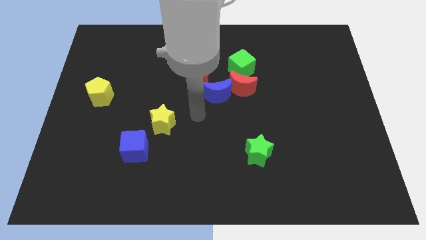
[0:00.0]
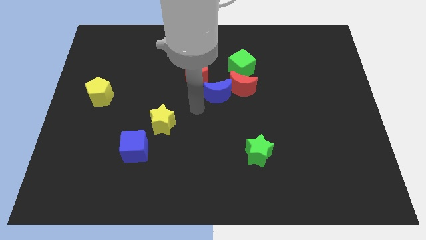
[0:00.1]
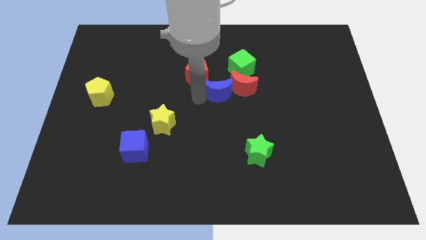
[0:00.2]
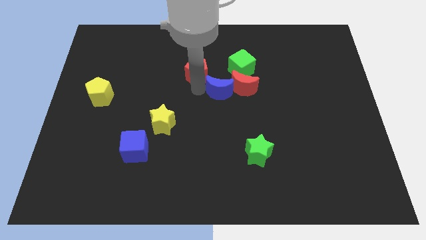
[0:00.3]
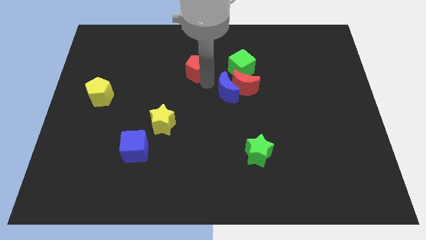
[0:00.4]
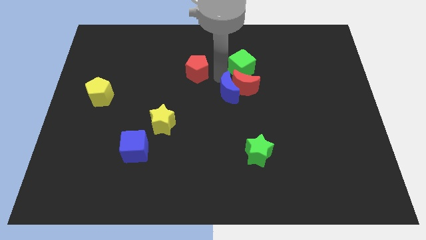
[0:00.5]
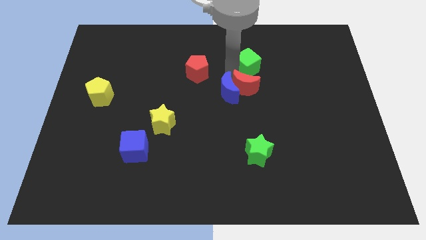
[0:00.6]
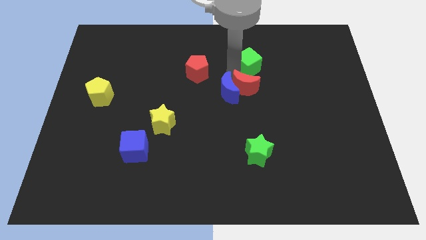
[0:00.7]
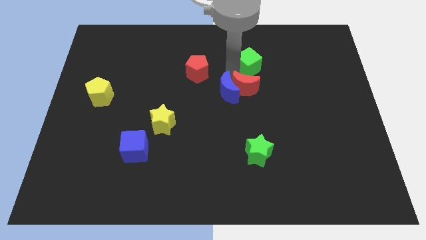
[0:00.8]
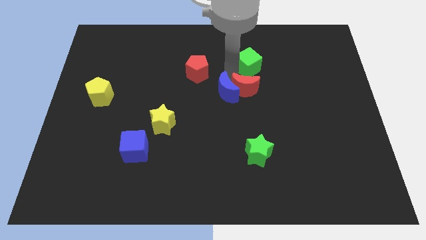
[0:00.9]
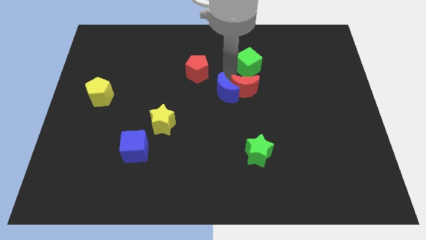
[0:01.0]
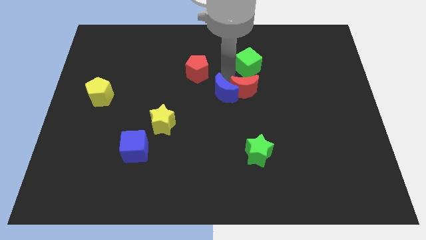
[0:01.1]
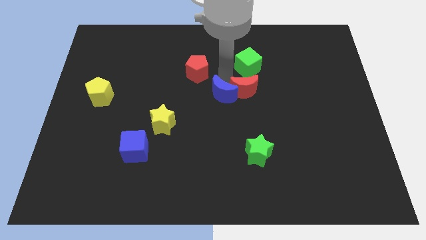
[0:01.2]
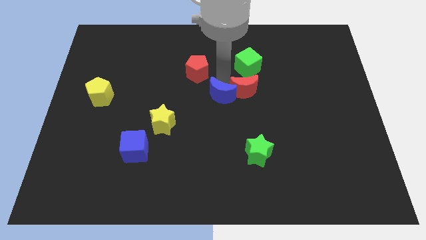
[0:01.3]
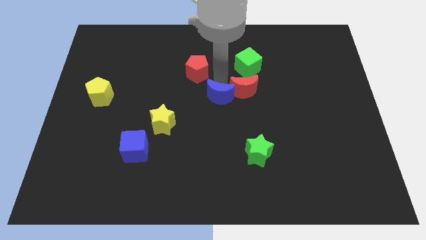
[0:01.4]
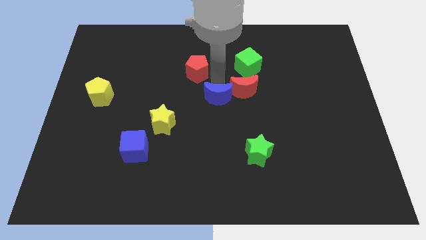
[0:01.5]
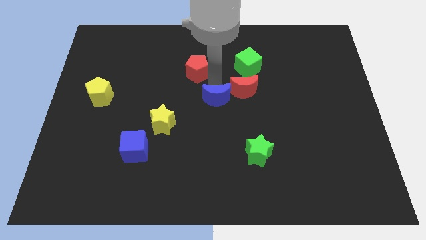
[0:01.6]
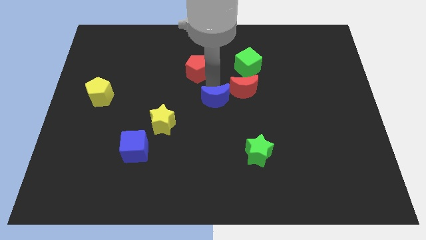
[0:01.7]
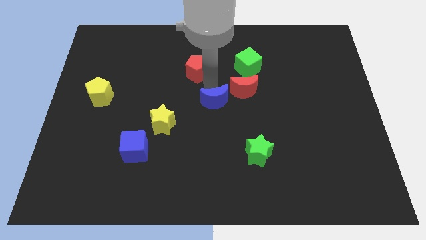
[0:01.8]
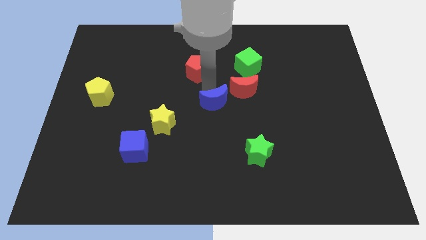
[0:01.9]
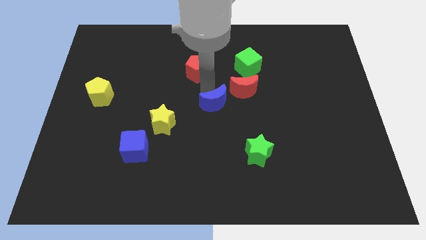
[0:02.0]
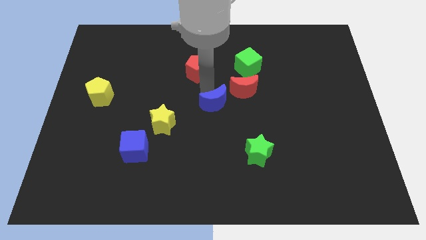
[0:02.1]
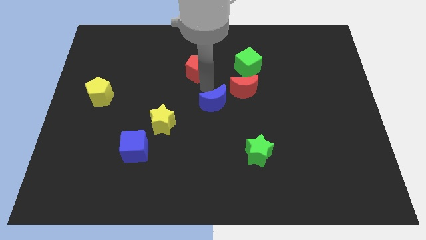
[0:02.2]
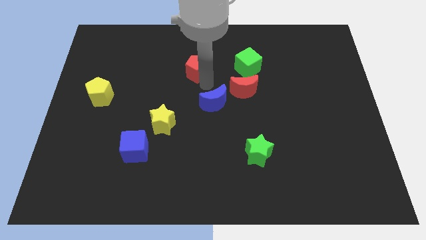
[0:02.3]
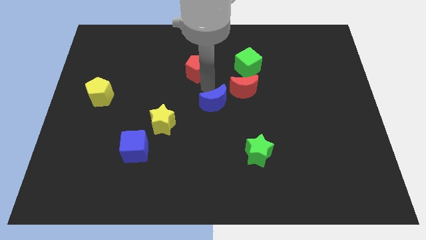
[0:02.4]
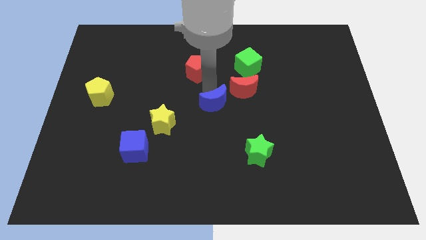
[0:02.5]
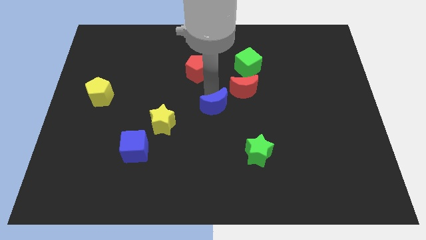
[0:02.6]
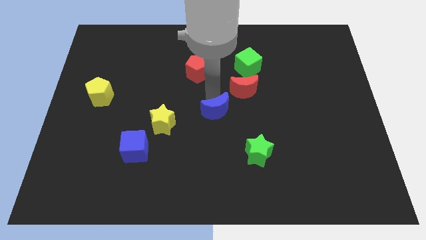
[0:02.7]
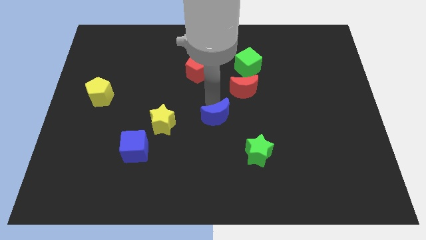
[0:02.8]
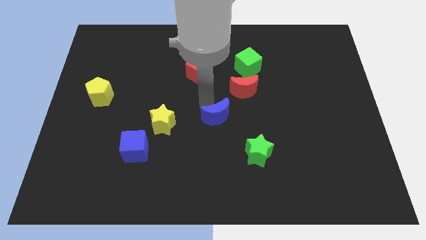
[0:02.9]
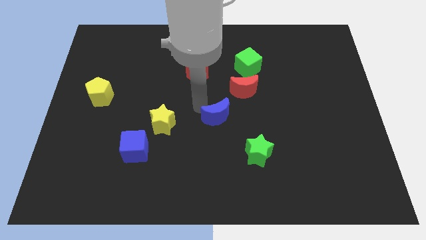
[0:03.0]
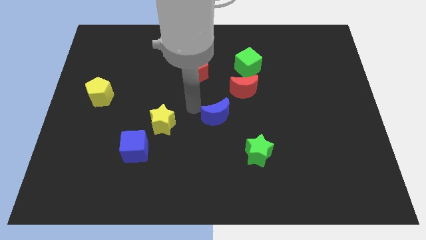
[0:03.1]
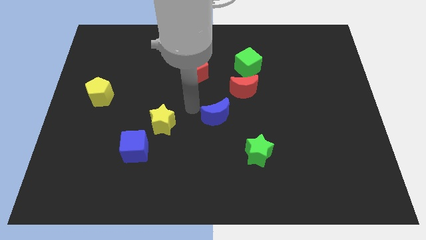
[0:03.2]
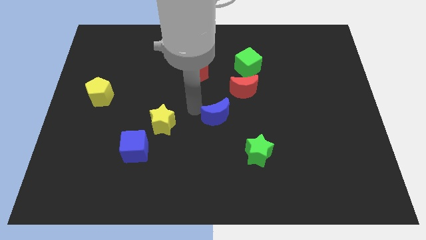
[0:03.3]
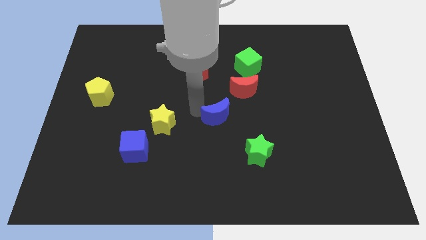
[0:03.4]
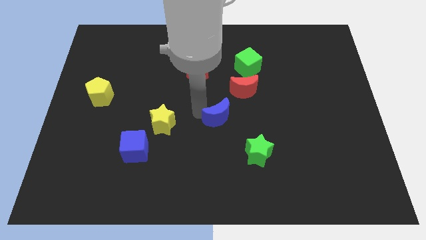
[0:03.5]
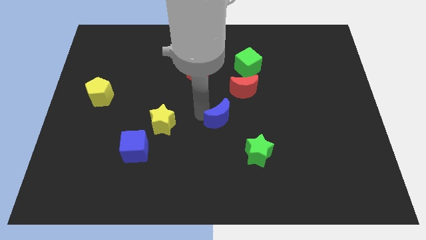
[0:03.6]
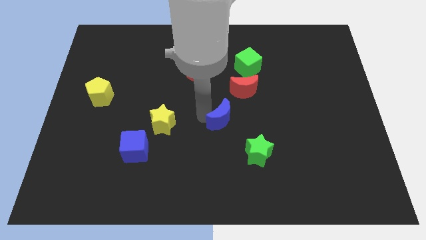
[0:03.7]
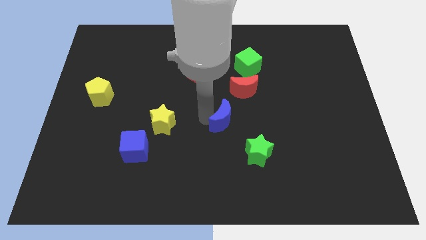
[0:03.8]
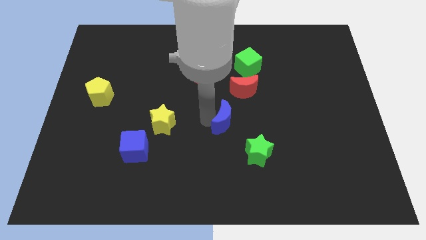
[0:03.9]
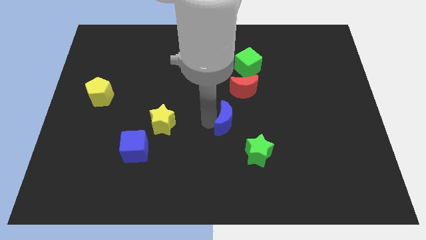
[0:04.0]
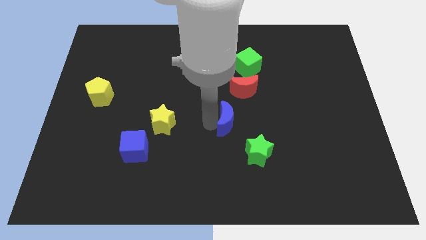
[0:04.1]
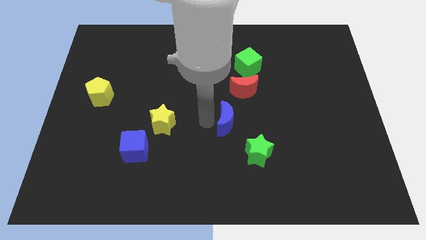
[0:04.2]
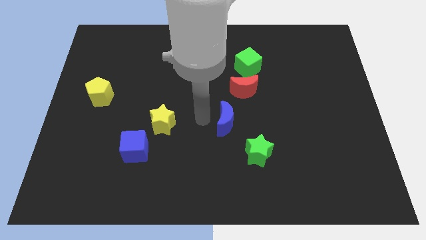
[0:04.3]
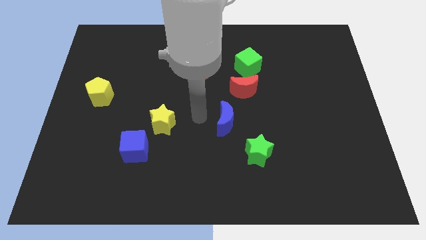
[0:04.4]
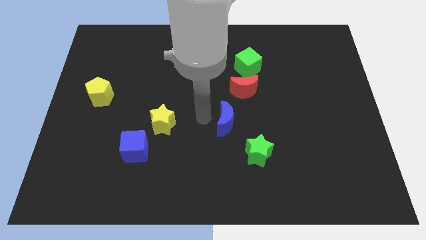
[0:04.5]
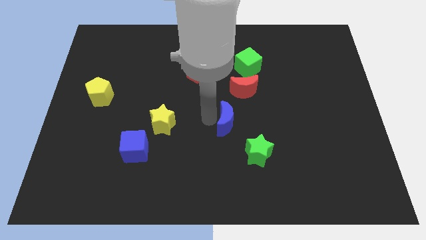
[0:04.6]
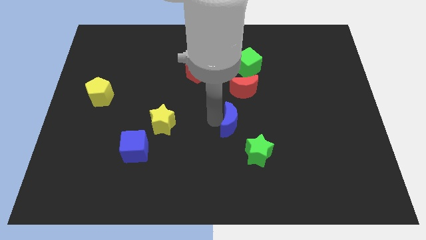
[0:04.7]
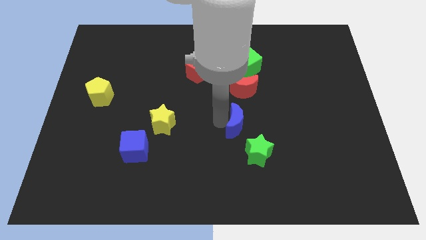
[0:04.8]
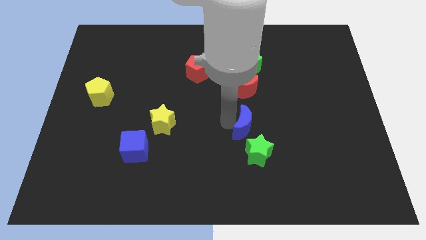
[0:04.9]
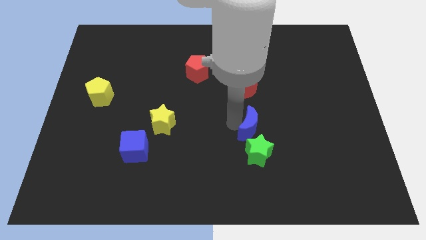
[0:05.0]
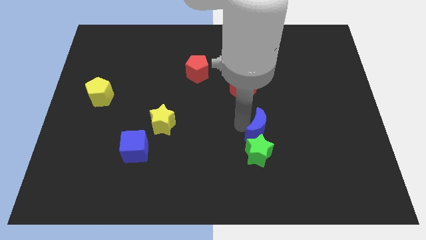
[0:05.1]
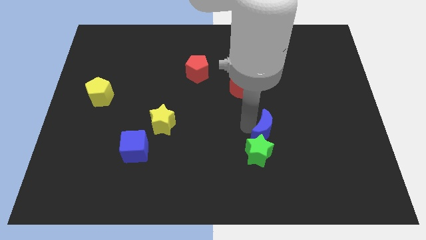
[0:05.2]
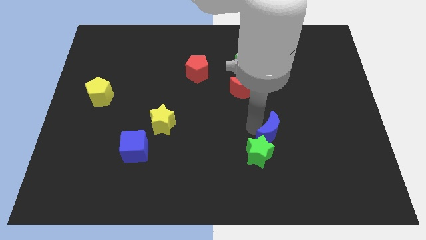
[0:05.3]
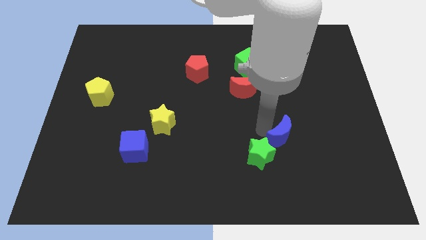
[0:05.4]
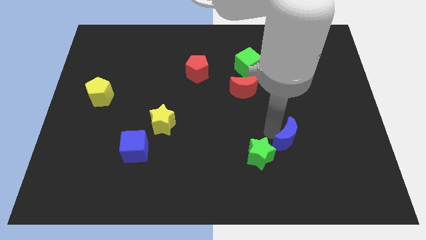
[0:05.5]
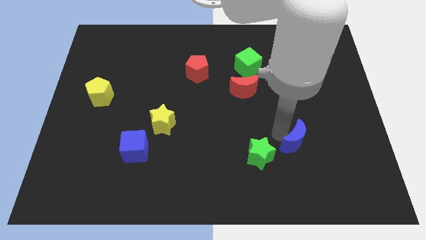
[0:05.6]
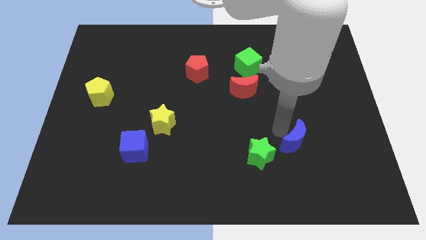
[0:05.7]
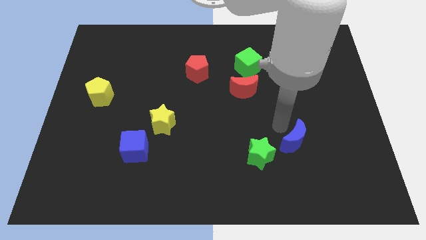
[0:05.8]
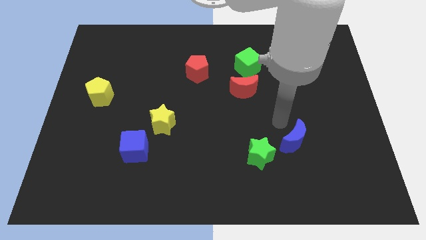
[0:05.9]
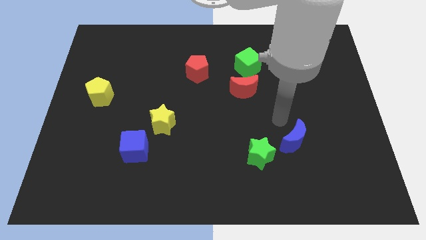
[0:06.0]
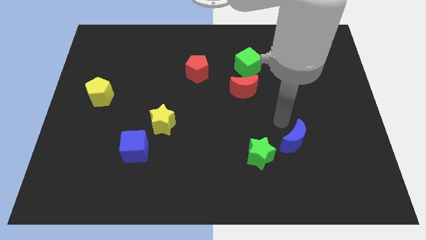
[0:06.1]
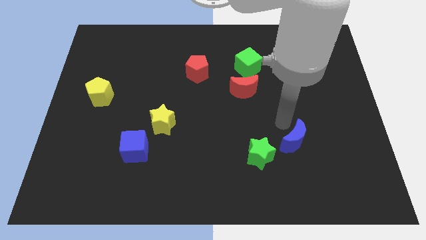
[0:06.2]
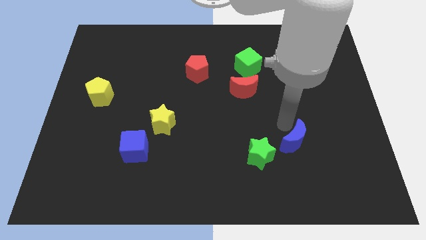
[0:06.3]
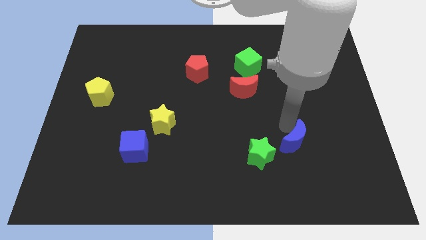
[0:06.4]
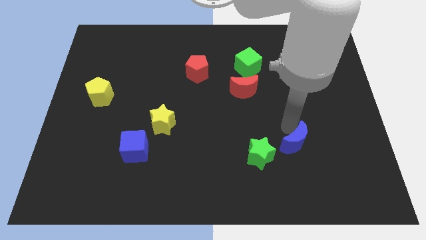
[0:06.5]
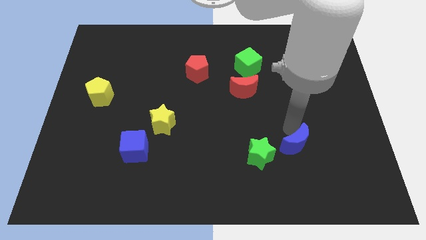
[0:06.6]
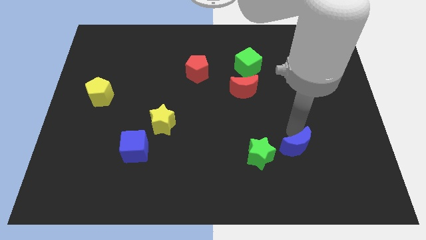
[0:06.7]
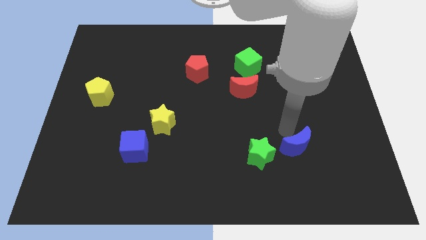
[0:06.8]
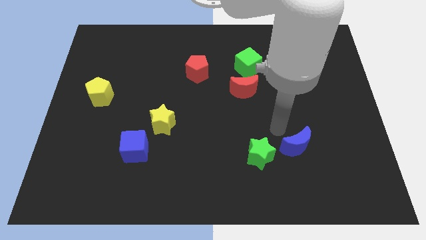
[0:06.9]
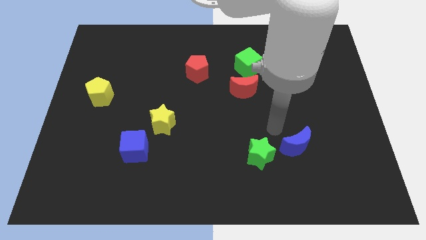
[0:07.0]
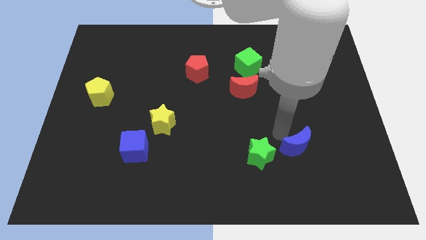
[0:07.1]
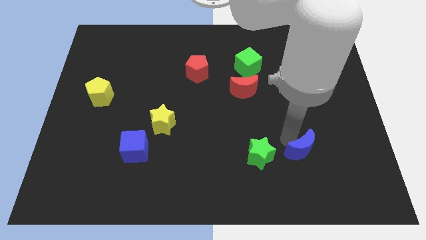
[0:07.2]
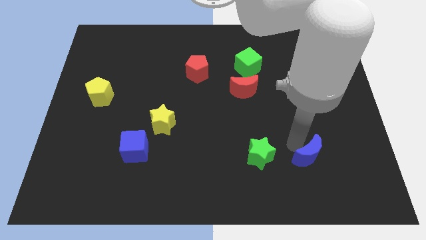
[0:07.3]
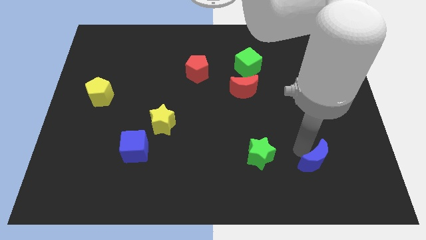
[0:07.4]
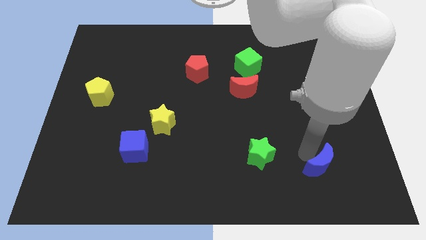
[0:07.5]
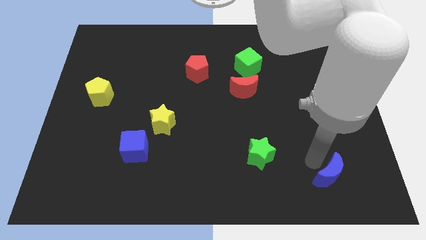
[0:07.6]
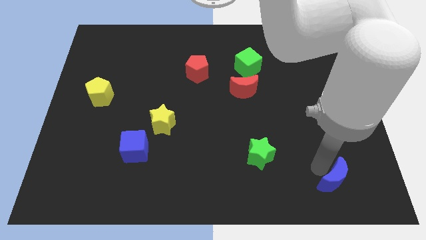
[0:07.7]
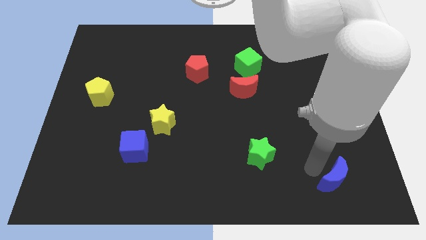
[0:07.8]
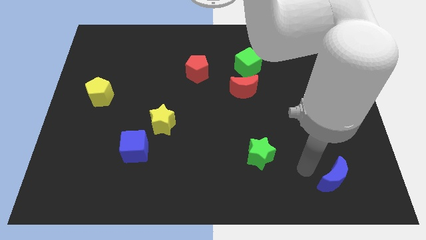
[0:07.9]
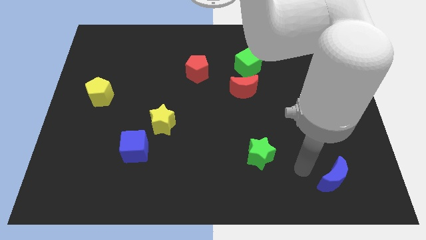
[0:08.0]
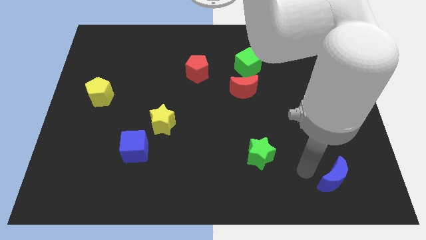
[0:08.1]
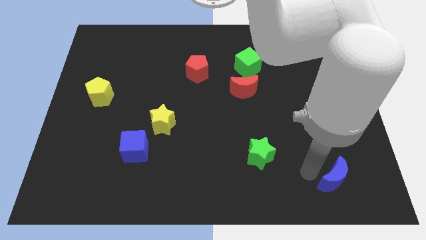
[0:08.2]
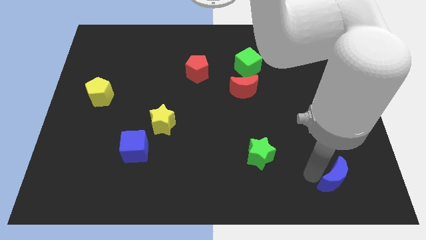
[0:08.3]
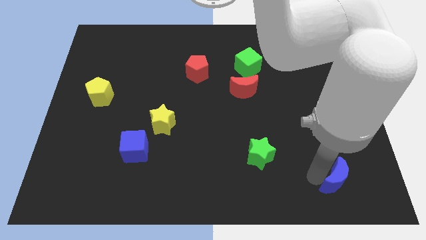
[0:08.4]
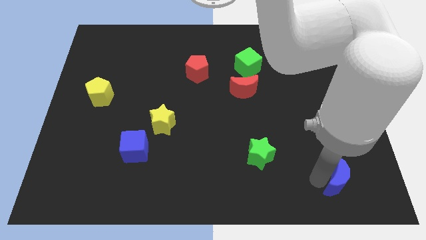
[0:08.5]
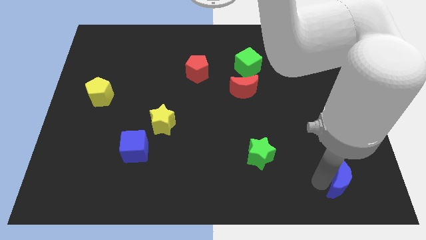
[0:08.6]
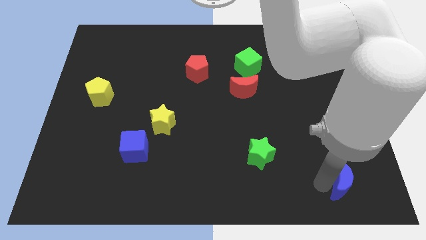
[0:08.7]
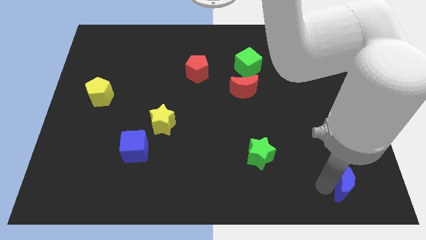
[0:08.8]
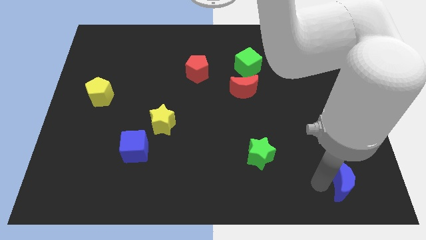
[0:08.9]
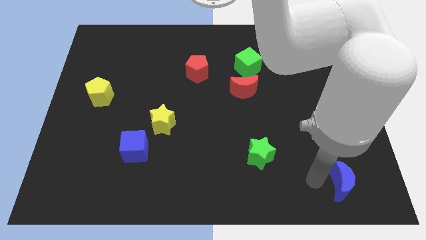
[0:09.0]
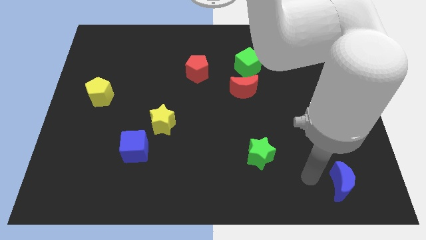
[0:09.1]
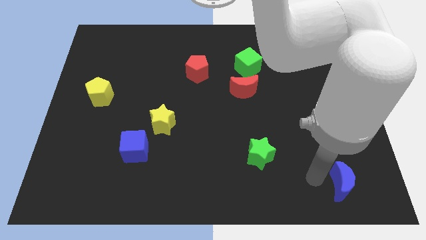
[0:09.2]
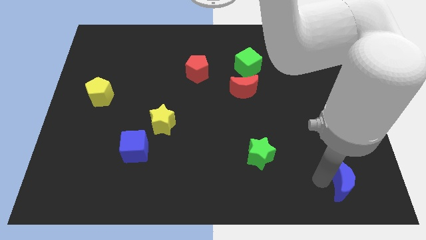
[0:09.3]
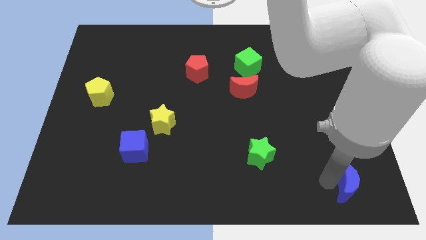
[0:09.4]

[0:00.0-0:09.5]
move the blue moon to the bottom right
